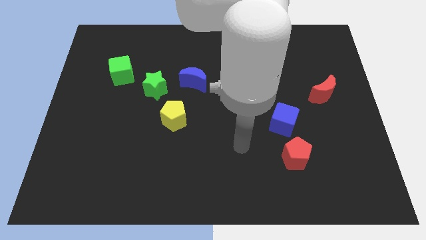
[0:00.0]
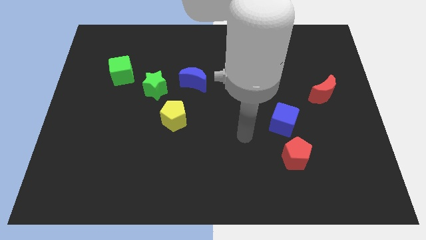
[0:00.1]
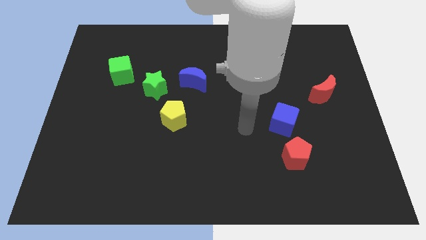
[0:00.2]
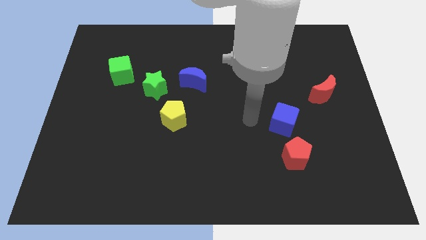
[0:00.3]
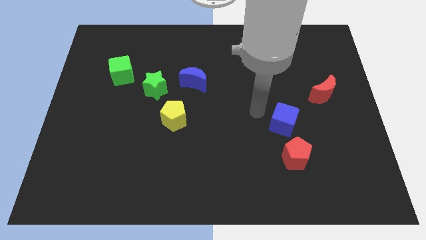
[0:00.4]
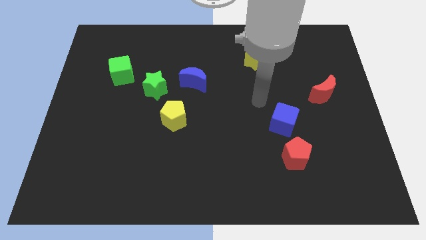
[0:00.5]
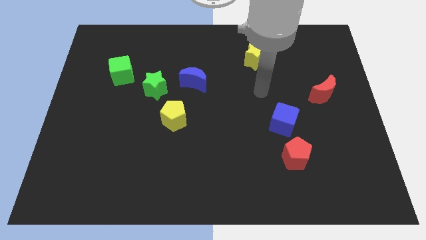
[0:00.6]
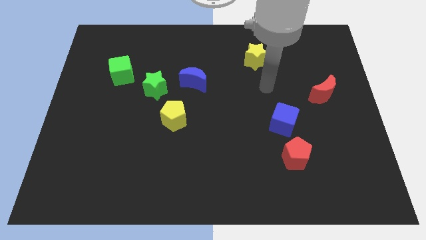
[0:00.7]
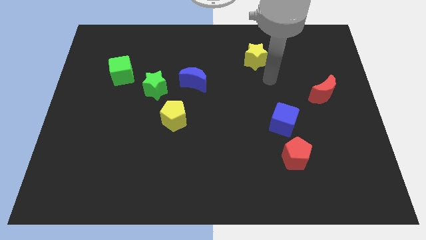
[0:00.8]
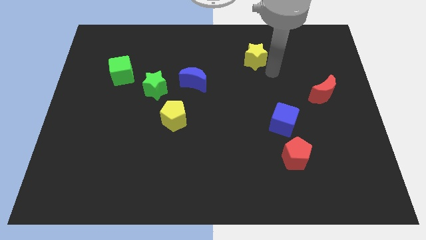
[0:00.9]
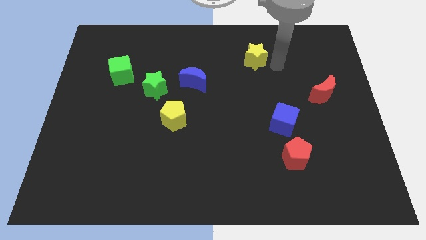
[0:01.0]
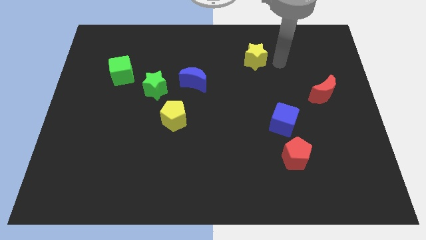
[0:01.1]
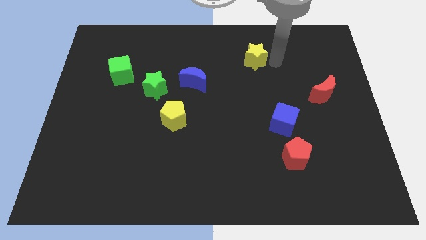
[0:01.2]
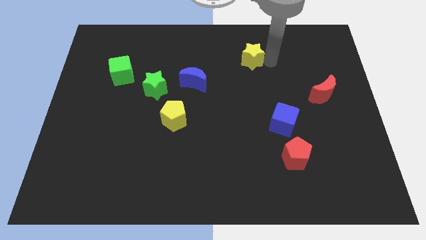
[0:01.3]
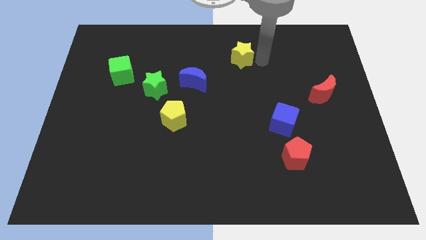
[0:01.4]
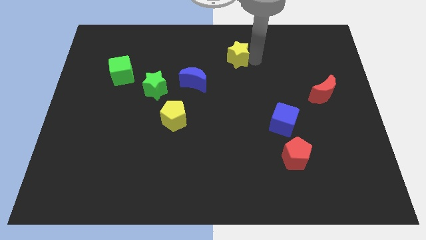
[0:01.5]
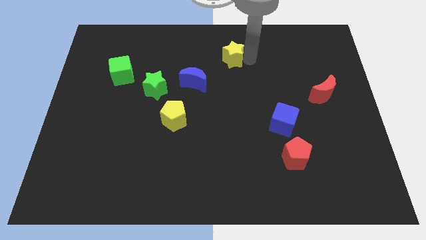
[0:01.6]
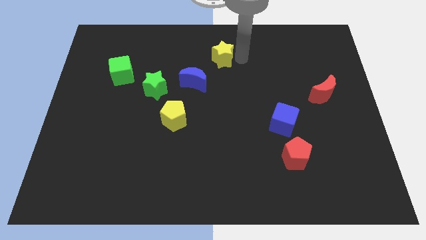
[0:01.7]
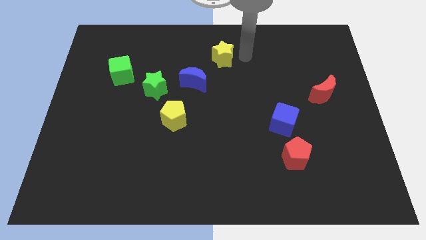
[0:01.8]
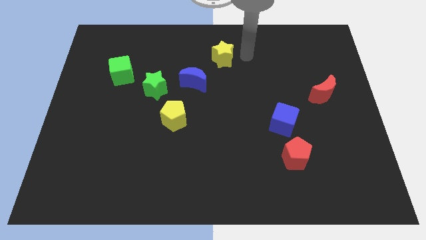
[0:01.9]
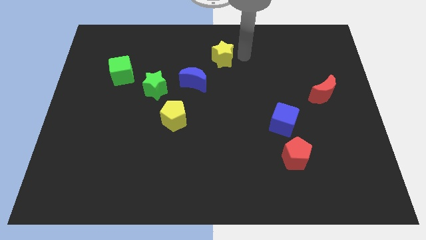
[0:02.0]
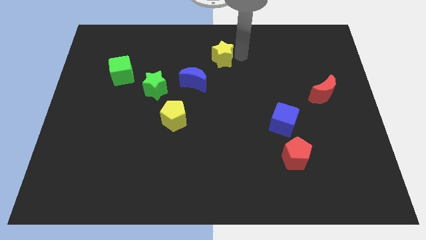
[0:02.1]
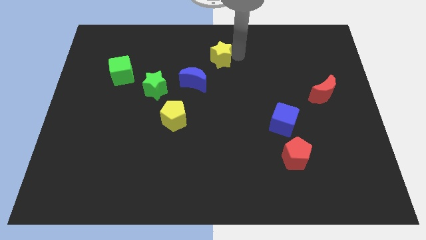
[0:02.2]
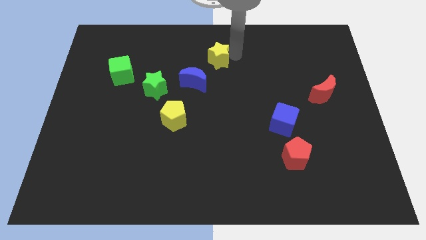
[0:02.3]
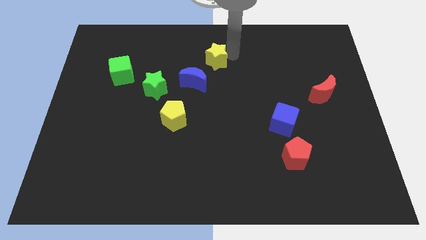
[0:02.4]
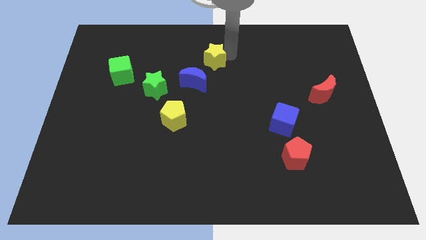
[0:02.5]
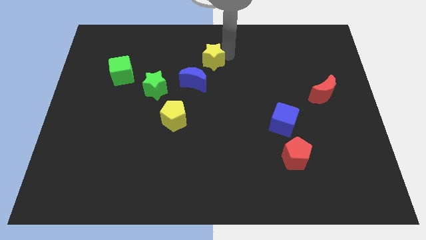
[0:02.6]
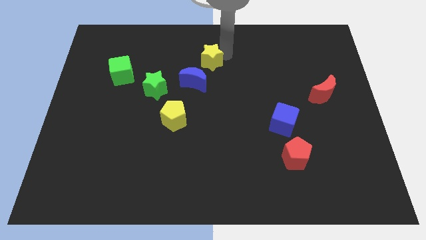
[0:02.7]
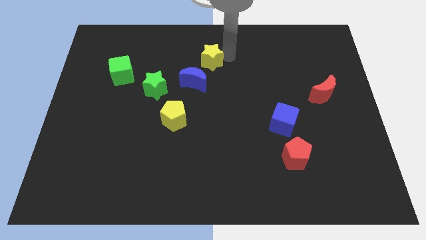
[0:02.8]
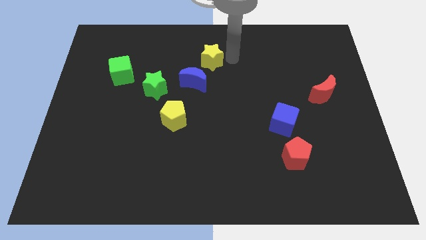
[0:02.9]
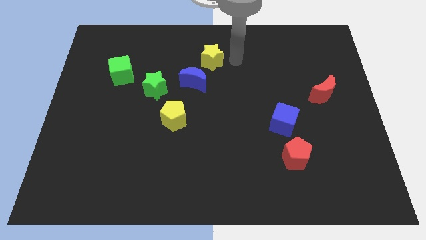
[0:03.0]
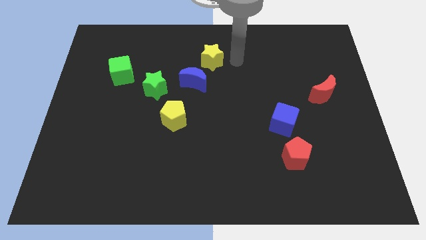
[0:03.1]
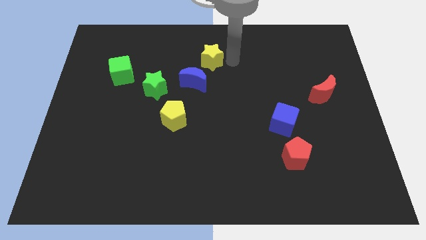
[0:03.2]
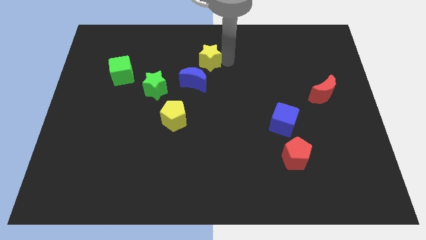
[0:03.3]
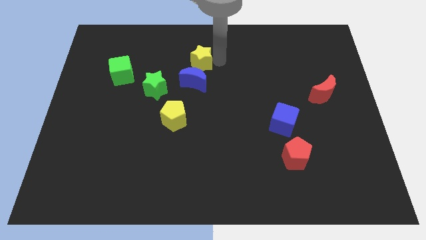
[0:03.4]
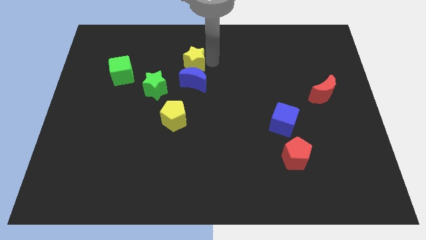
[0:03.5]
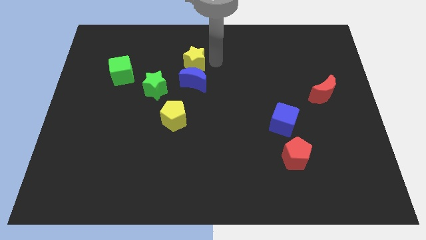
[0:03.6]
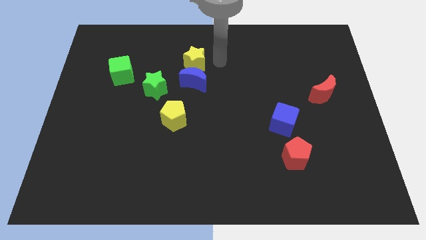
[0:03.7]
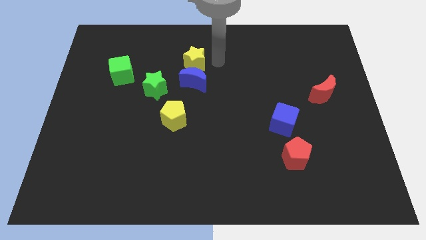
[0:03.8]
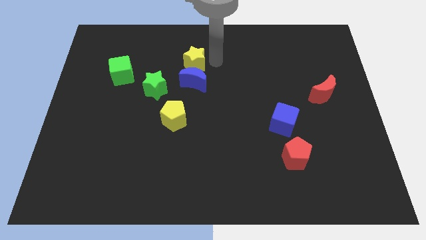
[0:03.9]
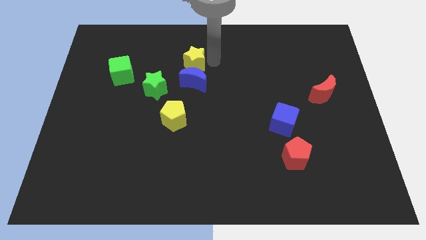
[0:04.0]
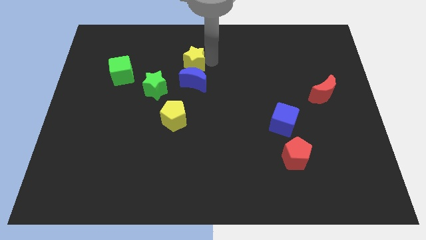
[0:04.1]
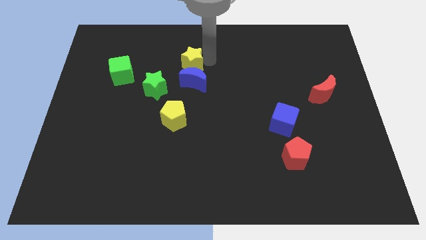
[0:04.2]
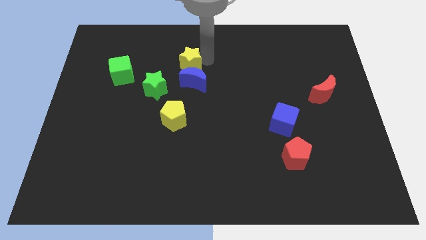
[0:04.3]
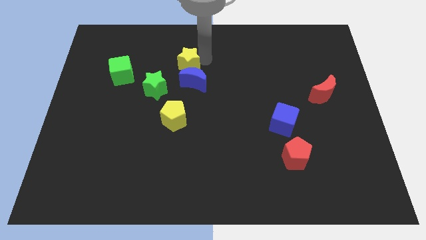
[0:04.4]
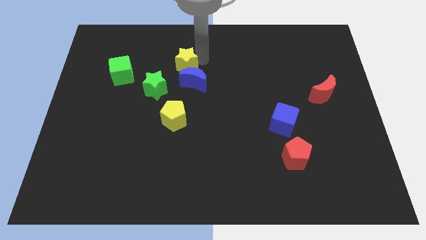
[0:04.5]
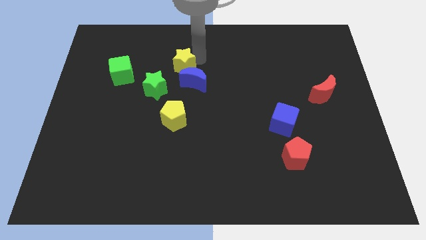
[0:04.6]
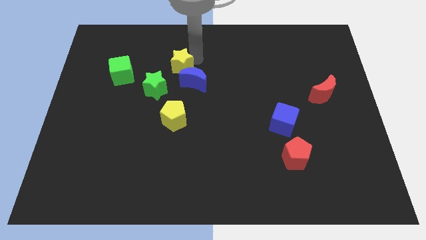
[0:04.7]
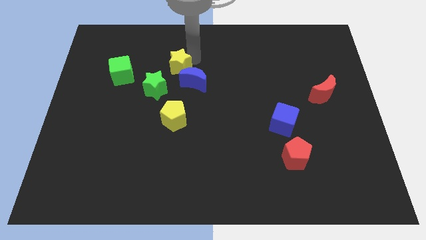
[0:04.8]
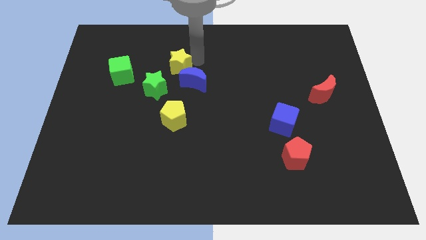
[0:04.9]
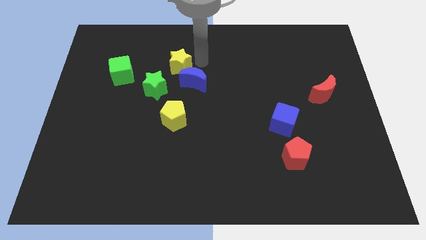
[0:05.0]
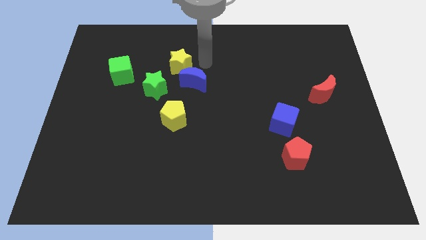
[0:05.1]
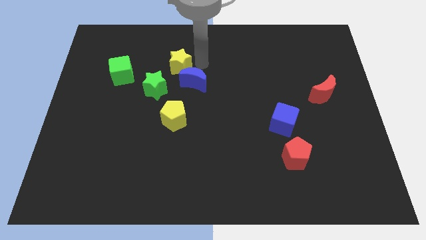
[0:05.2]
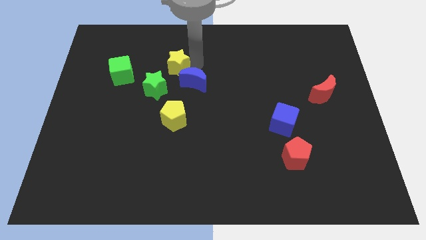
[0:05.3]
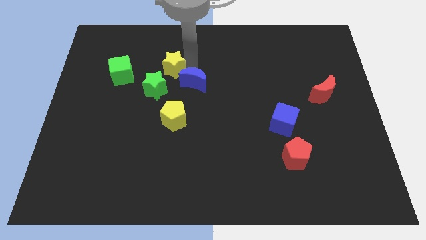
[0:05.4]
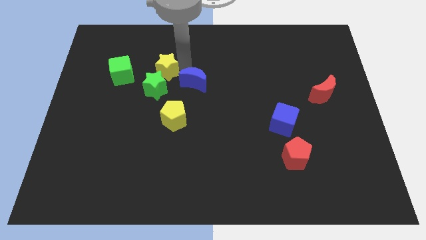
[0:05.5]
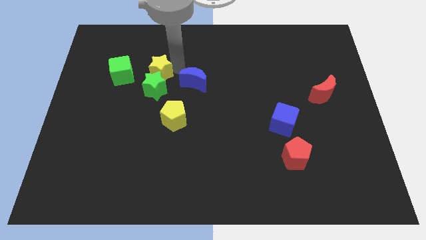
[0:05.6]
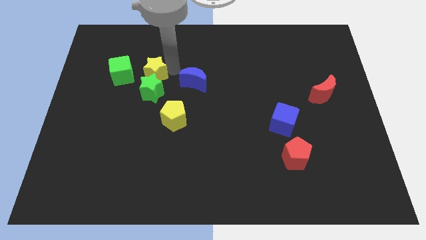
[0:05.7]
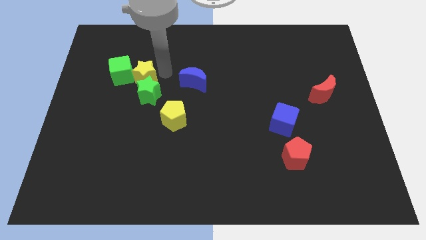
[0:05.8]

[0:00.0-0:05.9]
put the yellow star close to the green cube

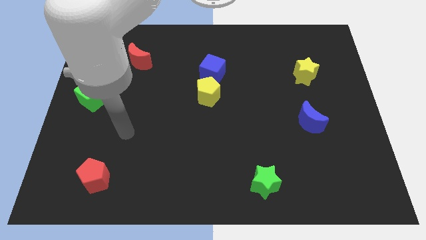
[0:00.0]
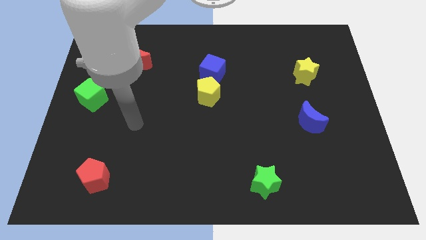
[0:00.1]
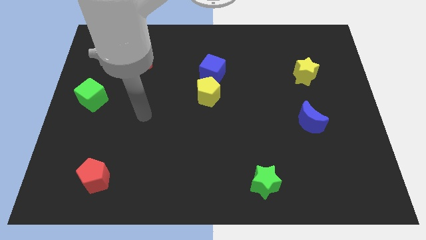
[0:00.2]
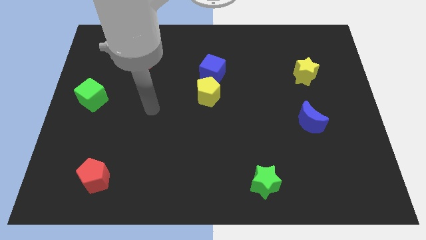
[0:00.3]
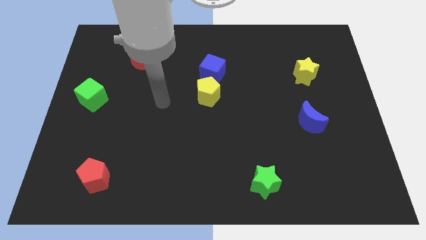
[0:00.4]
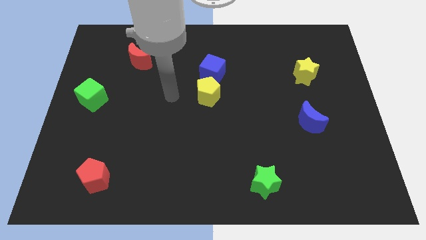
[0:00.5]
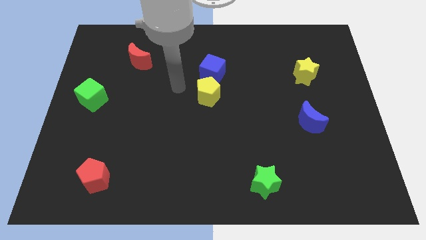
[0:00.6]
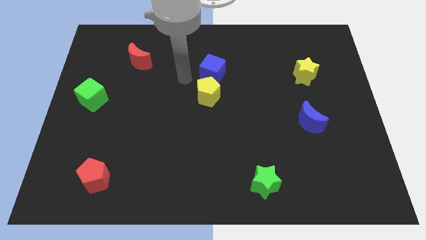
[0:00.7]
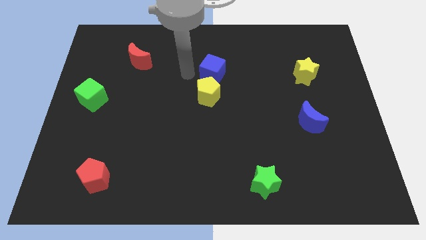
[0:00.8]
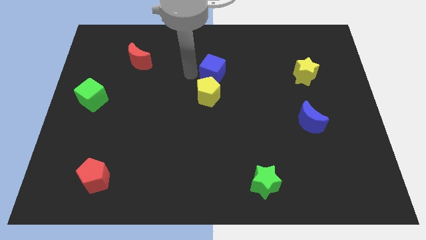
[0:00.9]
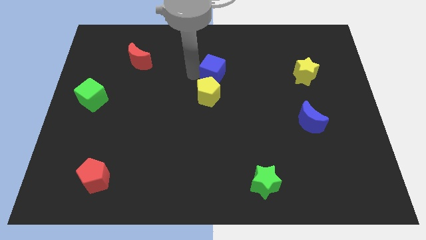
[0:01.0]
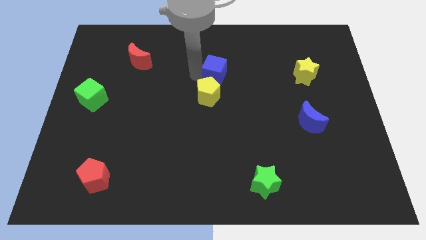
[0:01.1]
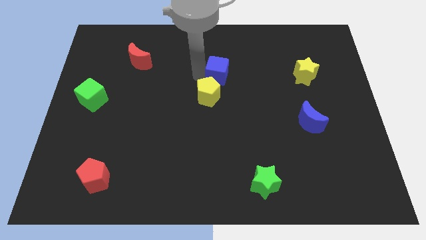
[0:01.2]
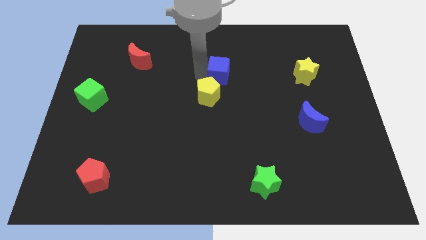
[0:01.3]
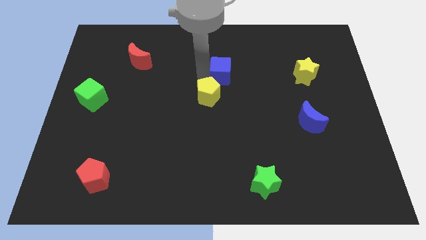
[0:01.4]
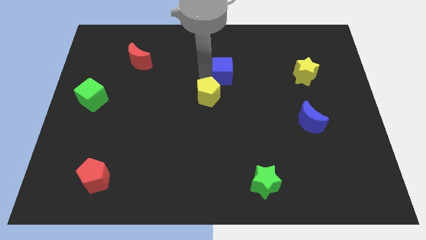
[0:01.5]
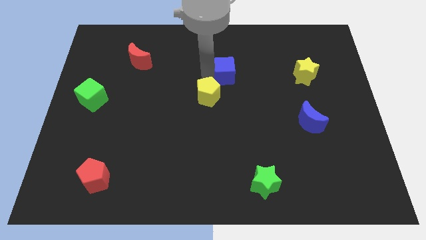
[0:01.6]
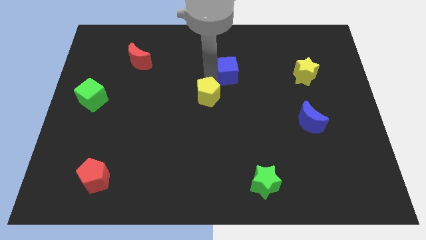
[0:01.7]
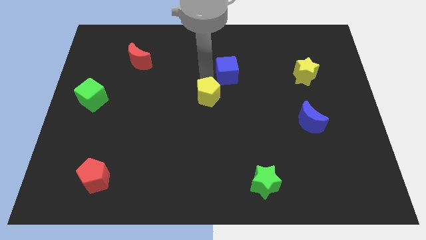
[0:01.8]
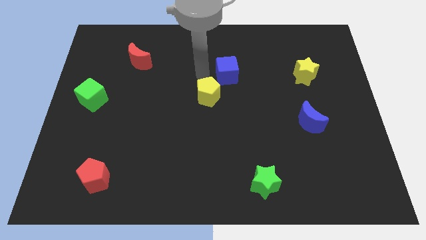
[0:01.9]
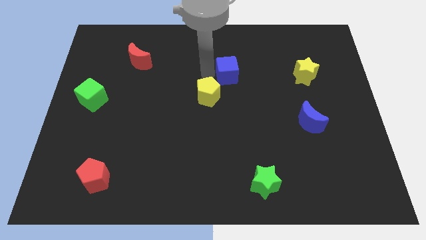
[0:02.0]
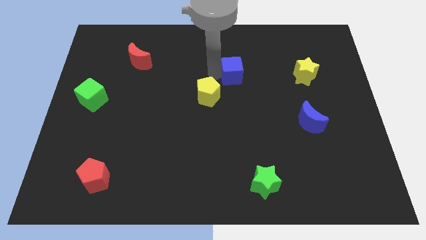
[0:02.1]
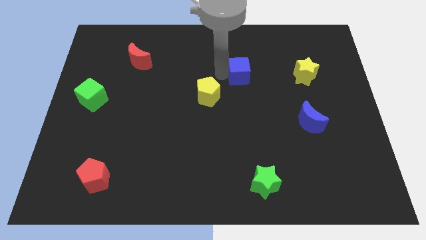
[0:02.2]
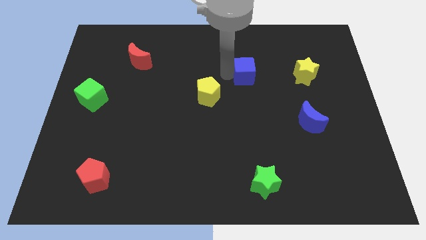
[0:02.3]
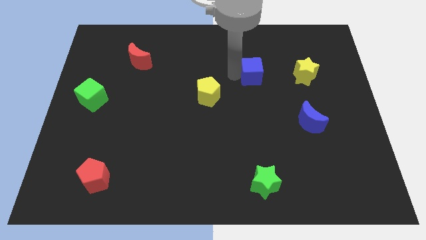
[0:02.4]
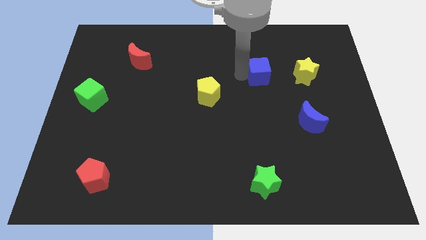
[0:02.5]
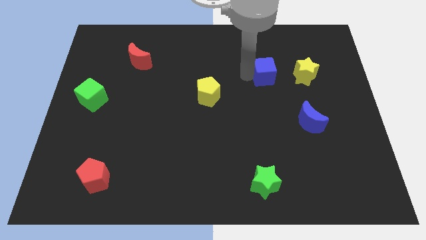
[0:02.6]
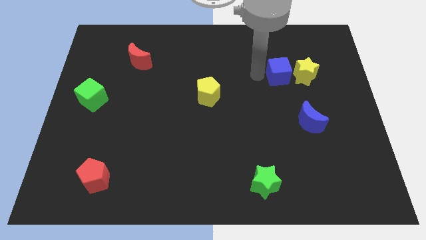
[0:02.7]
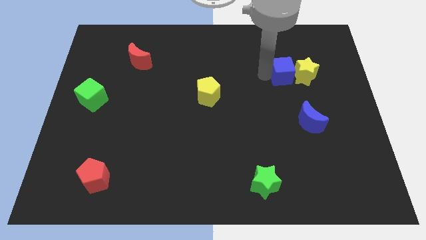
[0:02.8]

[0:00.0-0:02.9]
push the blue cube towards the yellow star
